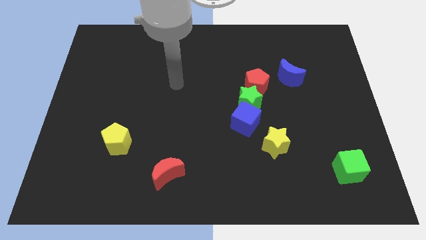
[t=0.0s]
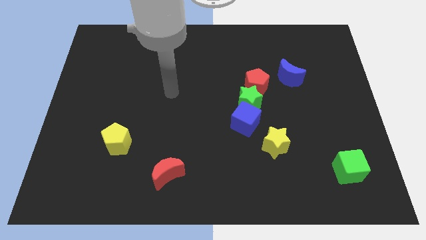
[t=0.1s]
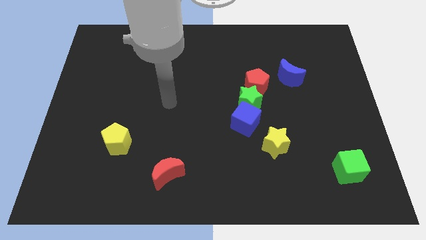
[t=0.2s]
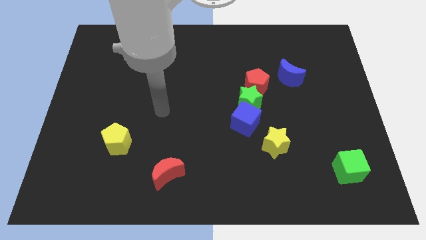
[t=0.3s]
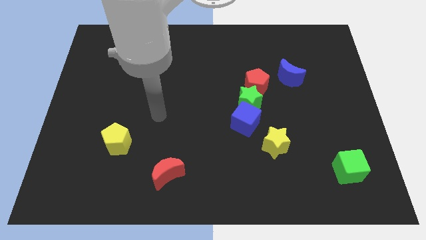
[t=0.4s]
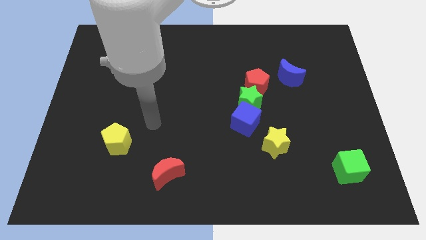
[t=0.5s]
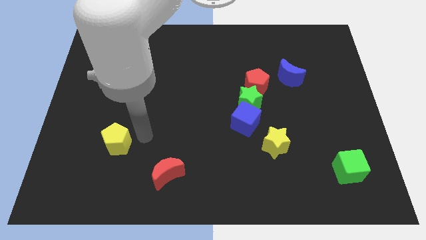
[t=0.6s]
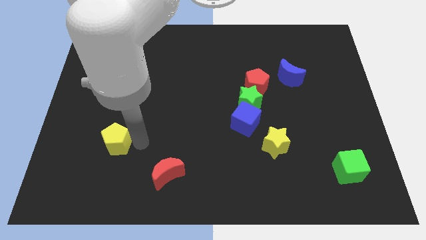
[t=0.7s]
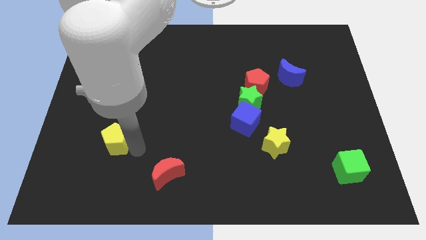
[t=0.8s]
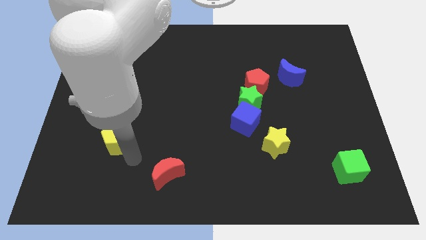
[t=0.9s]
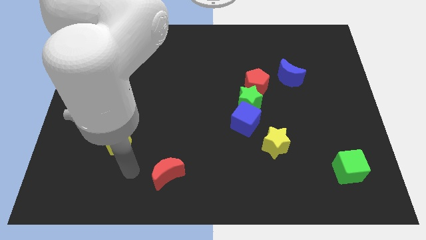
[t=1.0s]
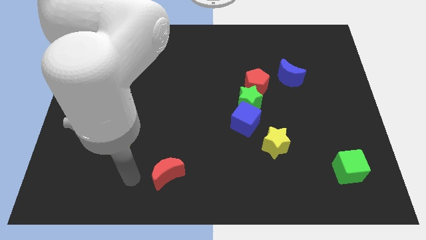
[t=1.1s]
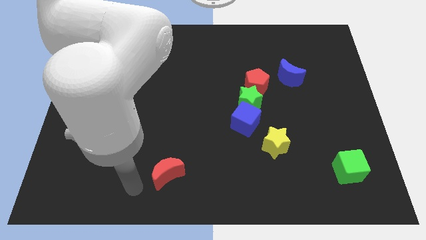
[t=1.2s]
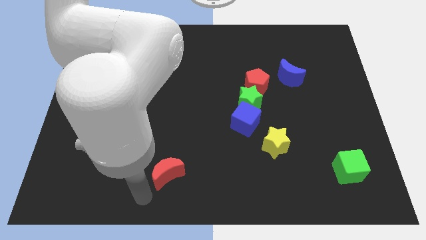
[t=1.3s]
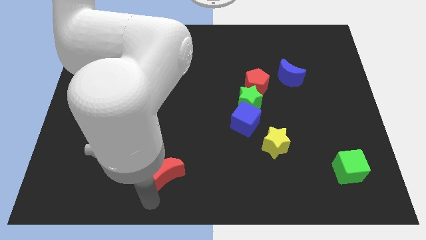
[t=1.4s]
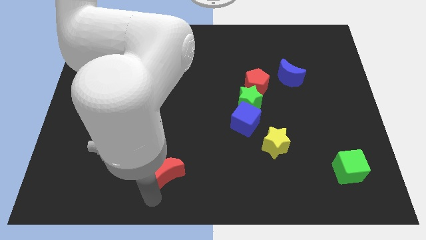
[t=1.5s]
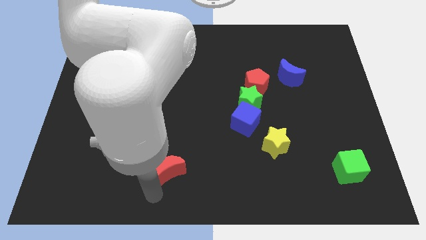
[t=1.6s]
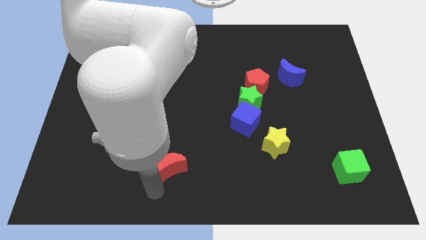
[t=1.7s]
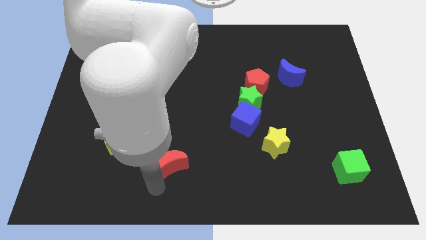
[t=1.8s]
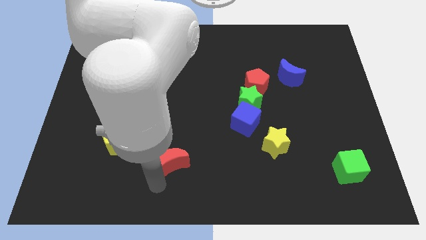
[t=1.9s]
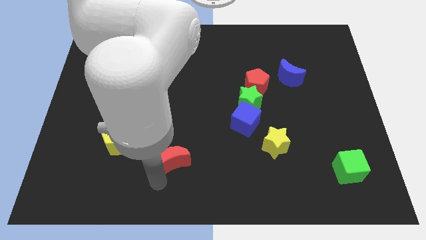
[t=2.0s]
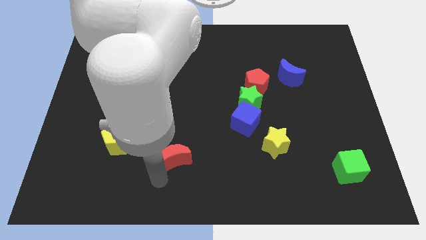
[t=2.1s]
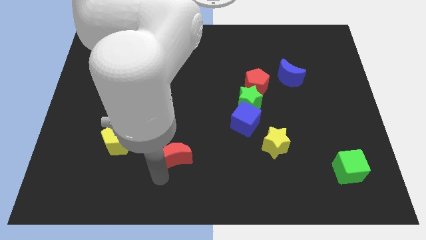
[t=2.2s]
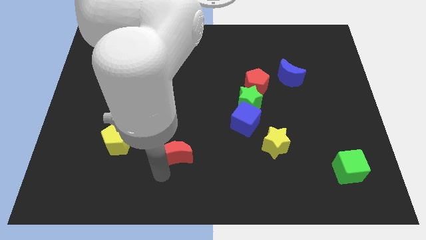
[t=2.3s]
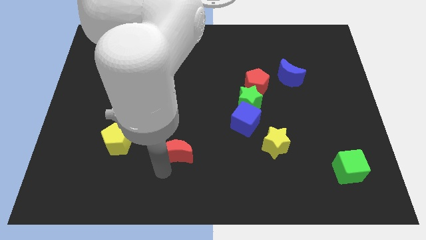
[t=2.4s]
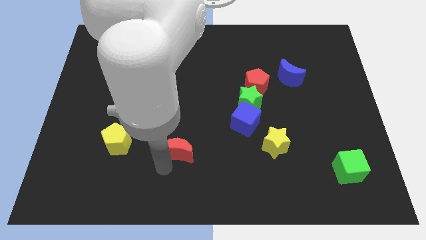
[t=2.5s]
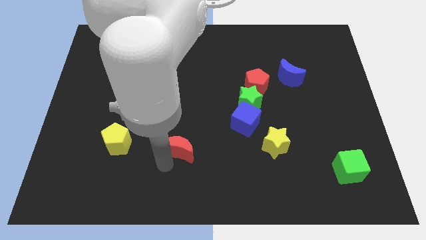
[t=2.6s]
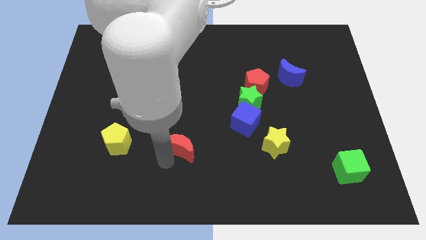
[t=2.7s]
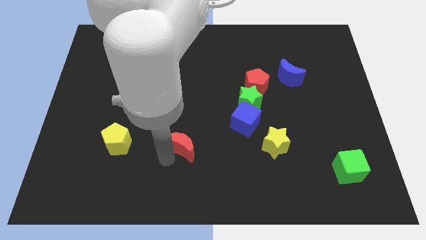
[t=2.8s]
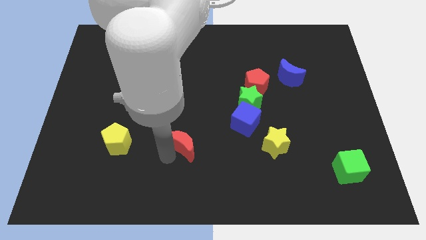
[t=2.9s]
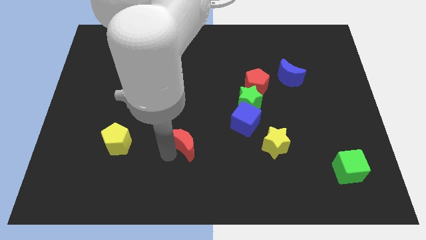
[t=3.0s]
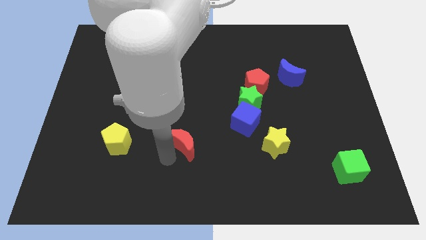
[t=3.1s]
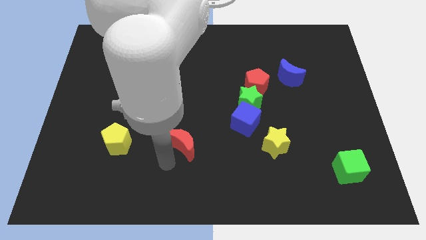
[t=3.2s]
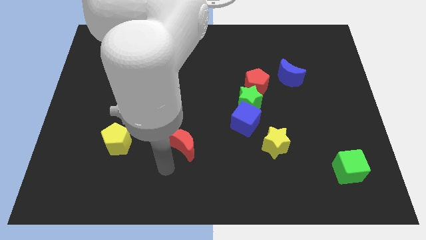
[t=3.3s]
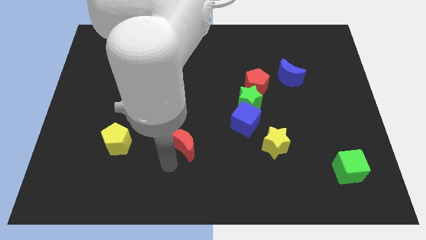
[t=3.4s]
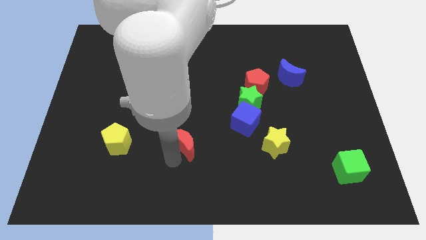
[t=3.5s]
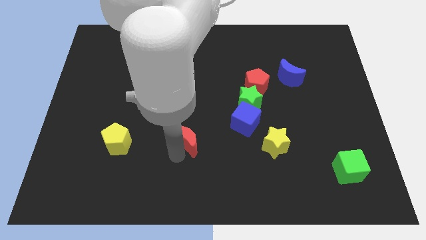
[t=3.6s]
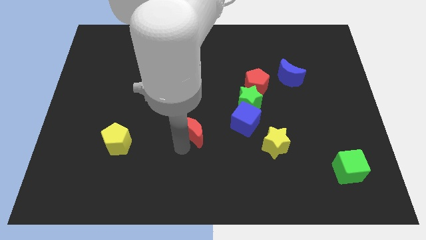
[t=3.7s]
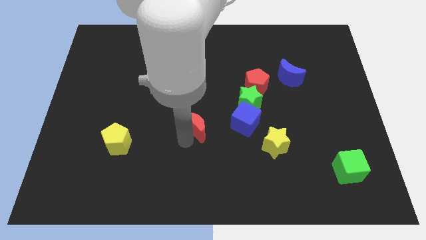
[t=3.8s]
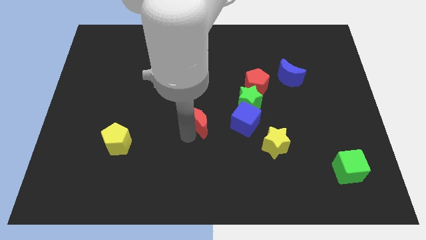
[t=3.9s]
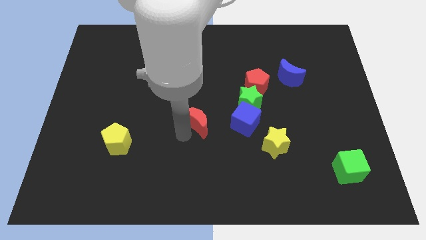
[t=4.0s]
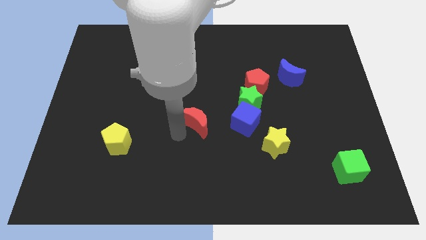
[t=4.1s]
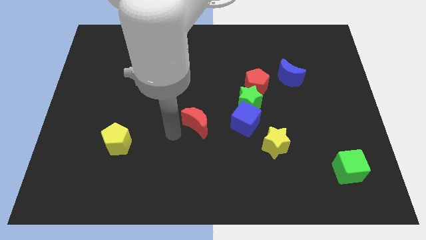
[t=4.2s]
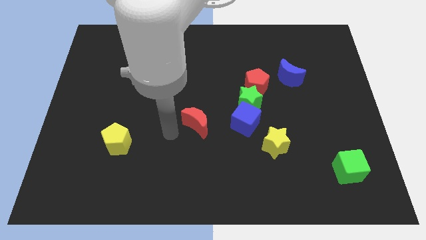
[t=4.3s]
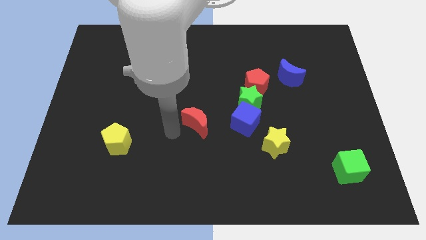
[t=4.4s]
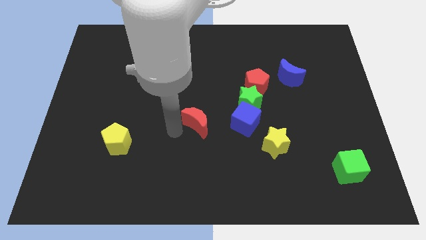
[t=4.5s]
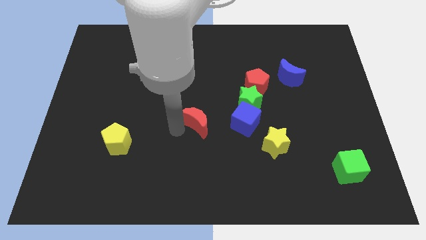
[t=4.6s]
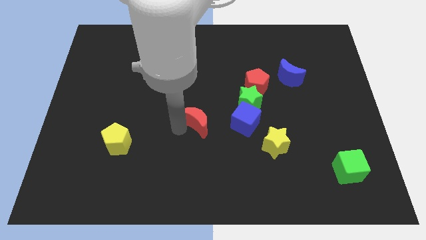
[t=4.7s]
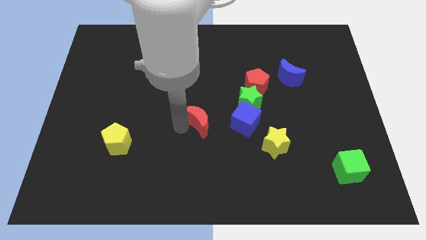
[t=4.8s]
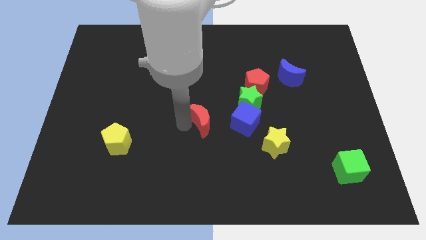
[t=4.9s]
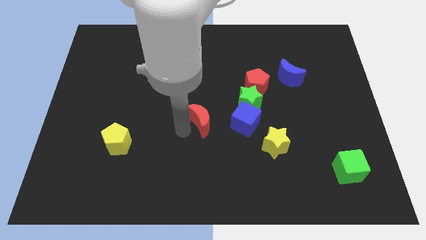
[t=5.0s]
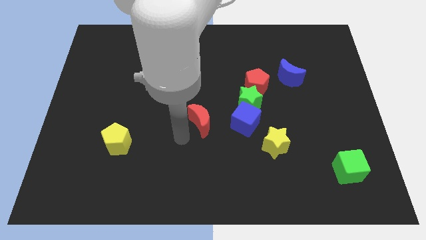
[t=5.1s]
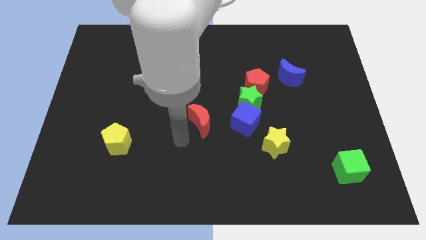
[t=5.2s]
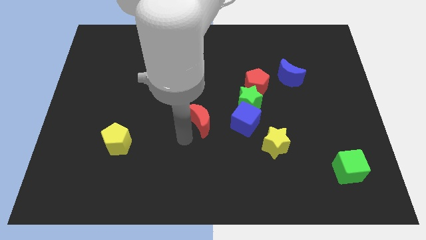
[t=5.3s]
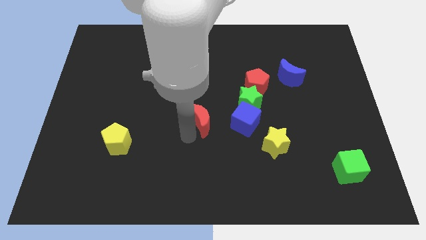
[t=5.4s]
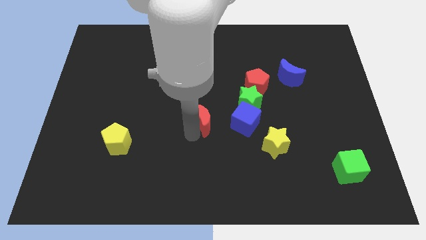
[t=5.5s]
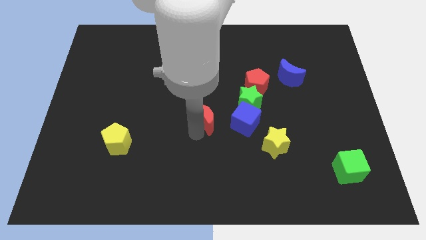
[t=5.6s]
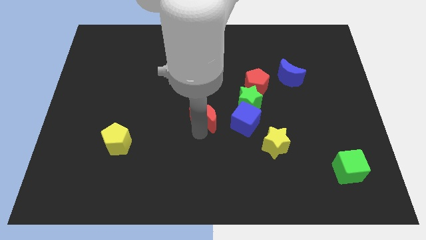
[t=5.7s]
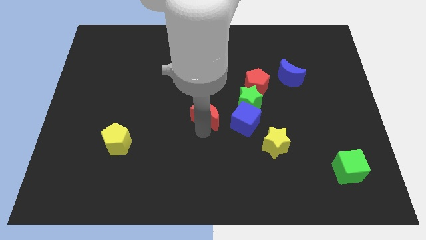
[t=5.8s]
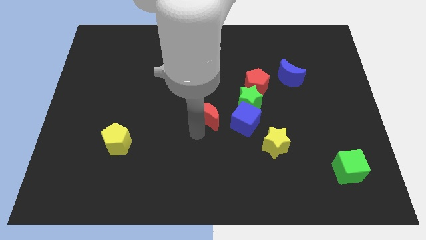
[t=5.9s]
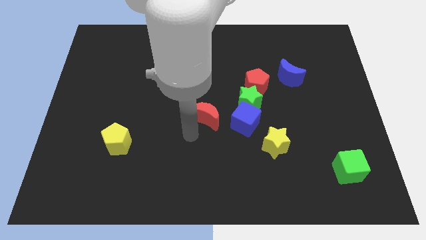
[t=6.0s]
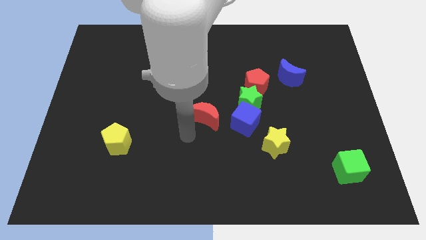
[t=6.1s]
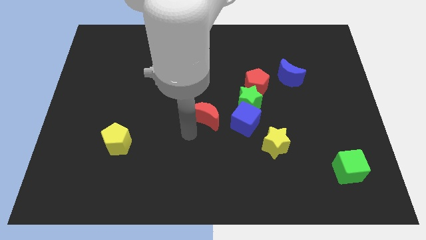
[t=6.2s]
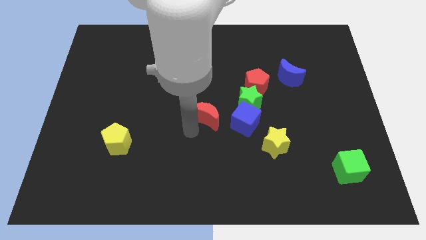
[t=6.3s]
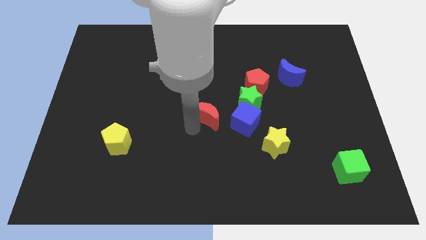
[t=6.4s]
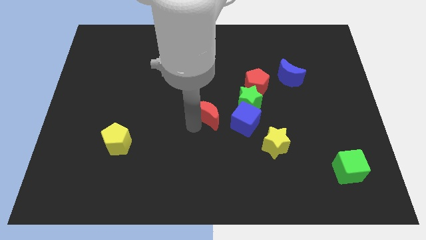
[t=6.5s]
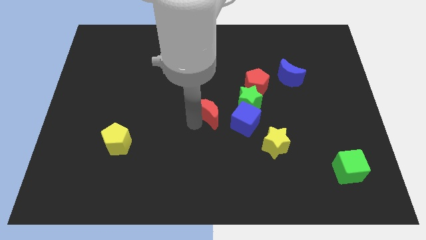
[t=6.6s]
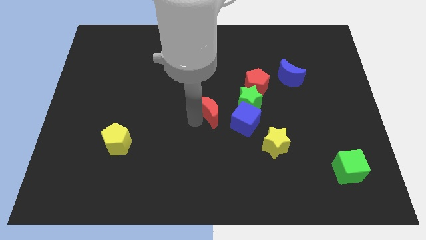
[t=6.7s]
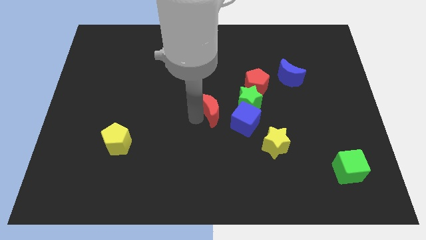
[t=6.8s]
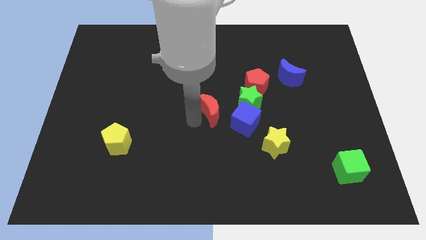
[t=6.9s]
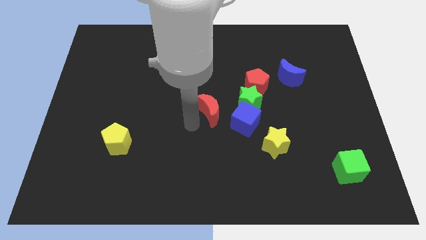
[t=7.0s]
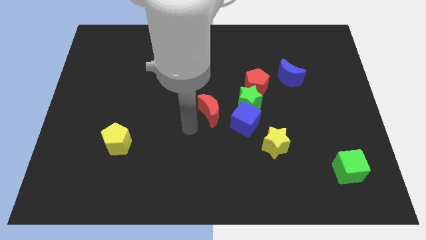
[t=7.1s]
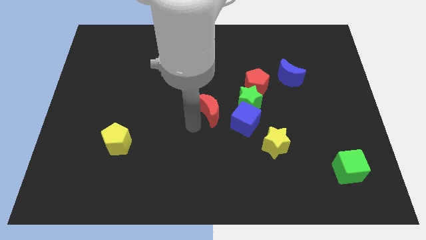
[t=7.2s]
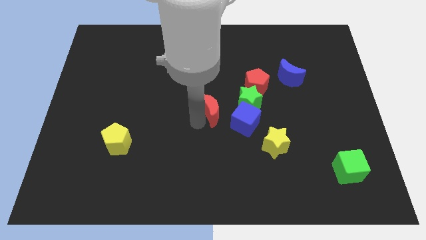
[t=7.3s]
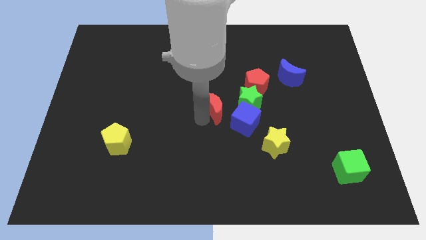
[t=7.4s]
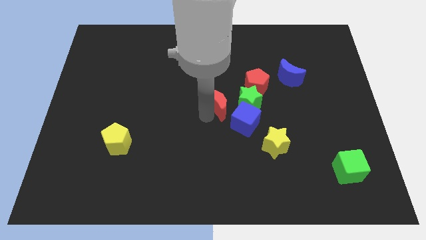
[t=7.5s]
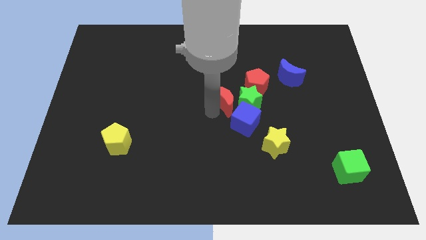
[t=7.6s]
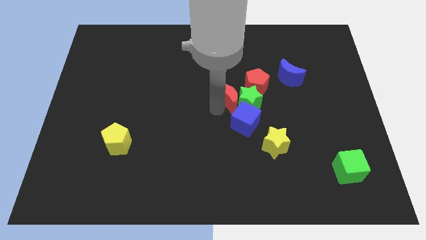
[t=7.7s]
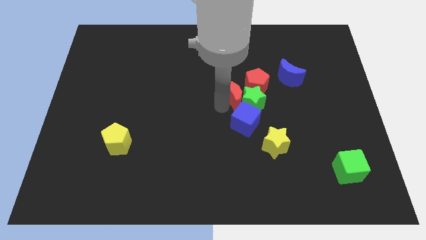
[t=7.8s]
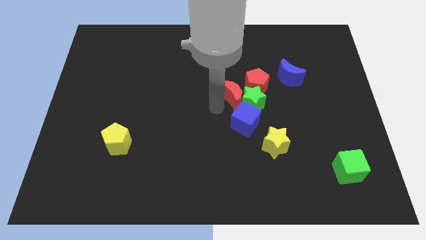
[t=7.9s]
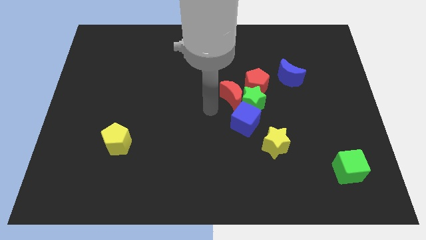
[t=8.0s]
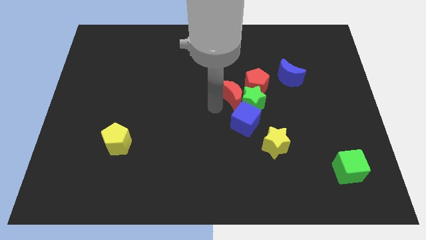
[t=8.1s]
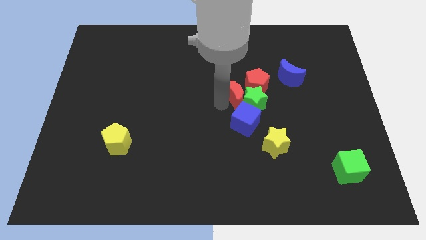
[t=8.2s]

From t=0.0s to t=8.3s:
put the red moon next to the red pentagon
